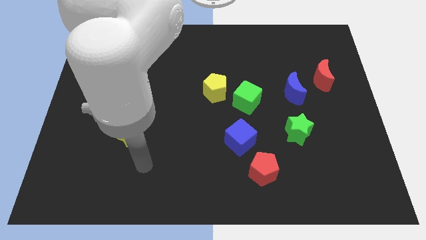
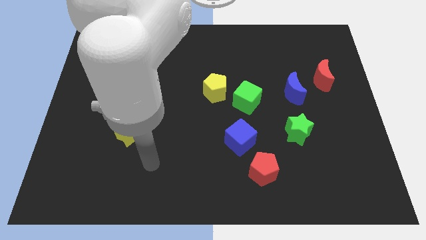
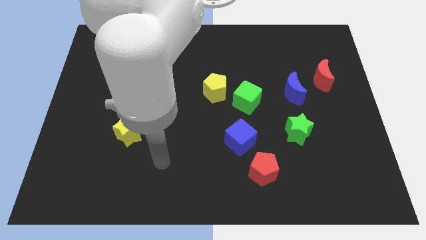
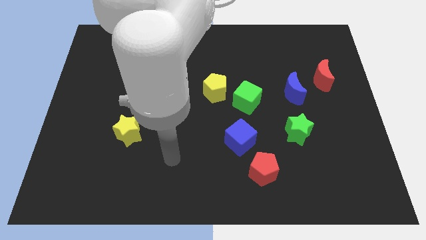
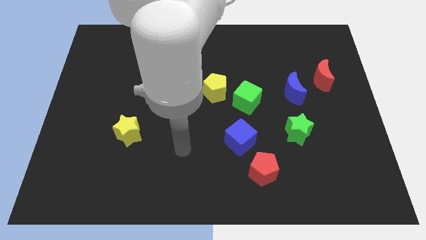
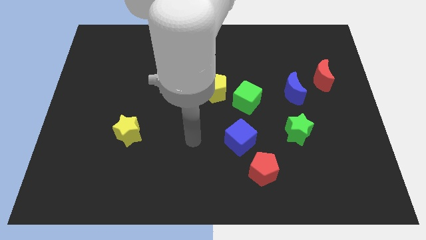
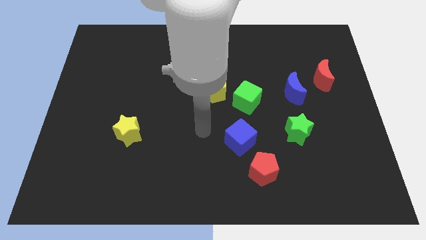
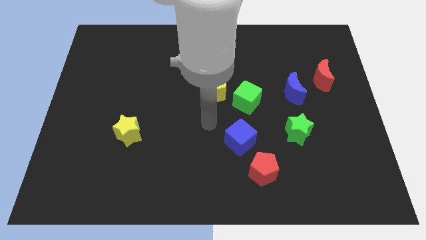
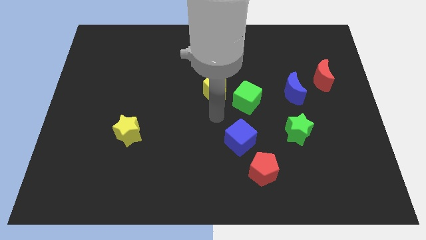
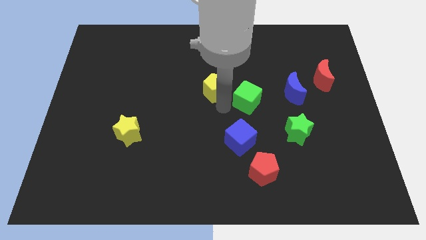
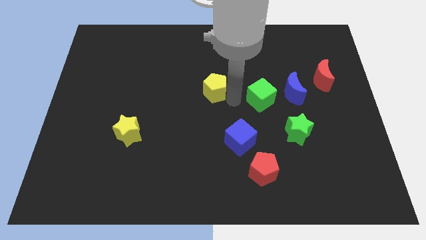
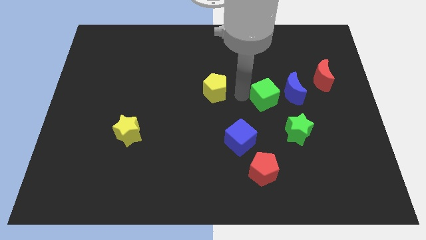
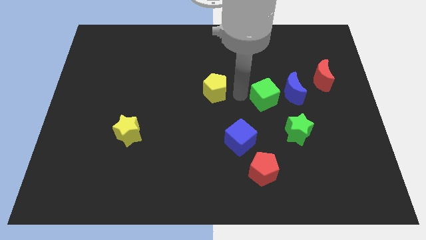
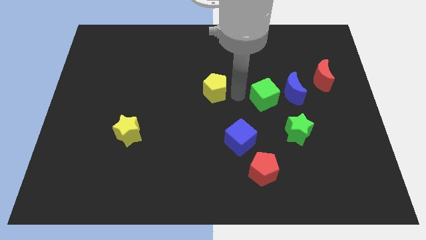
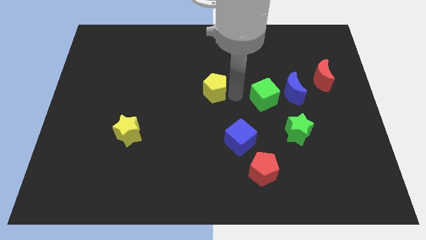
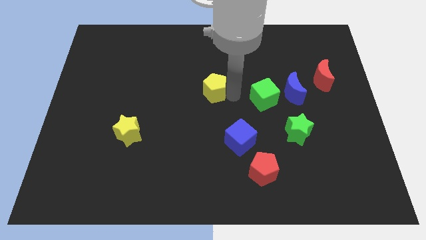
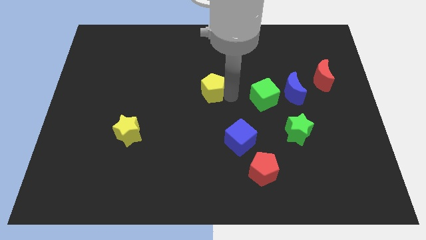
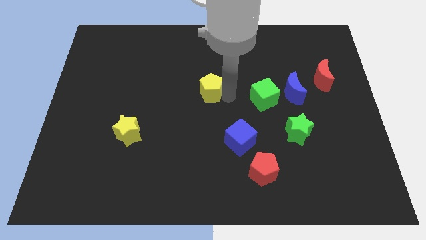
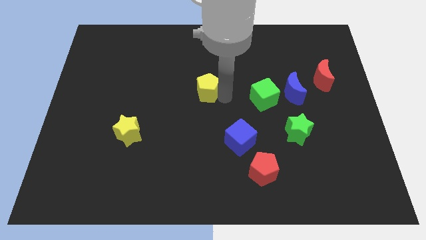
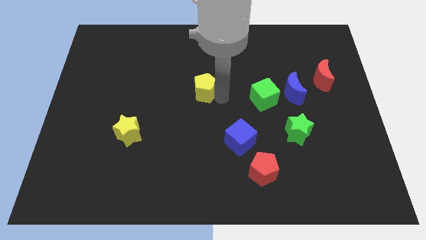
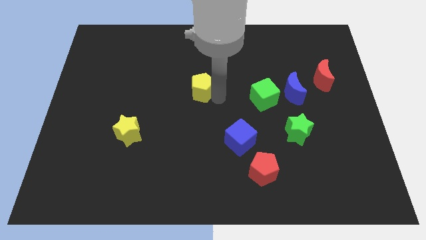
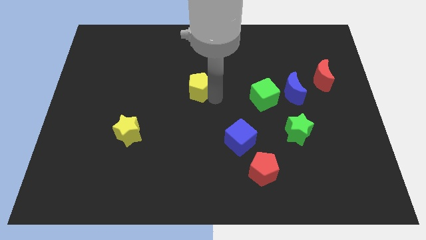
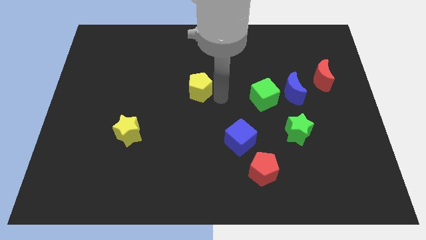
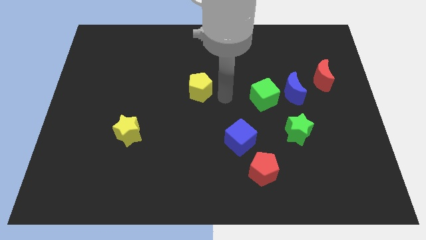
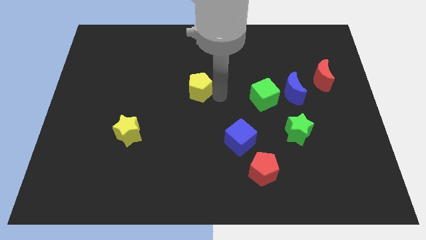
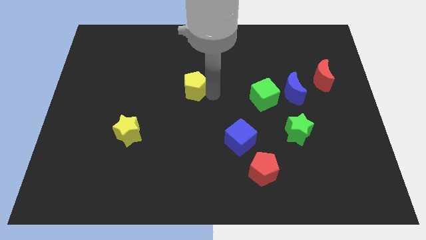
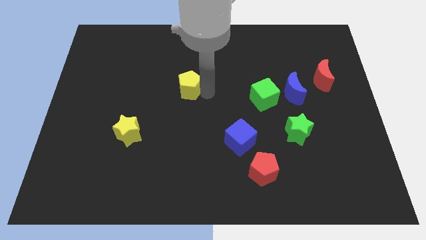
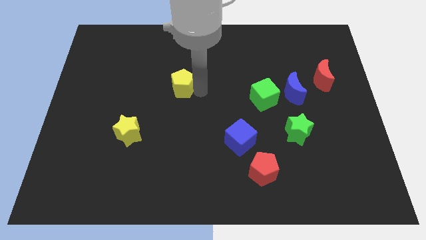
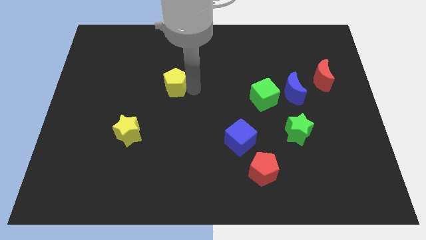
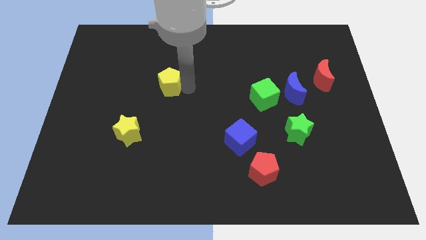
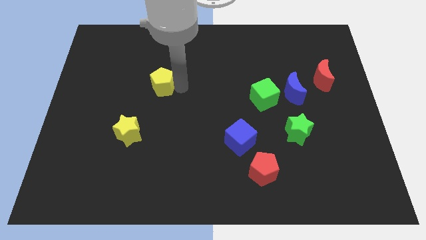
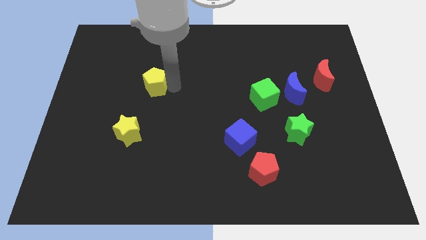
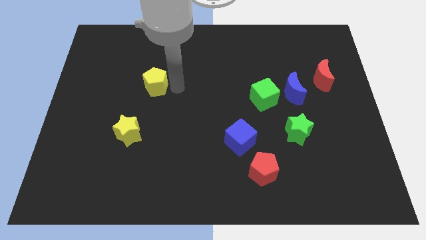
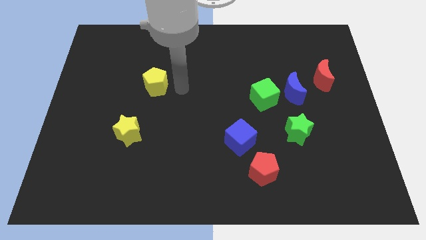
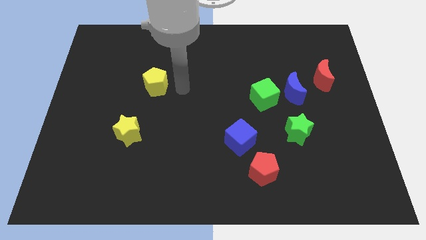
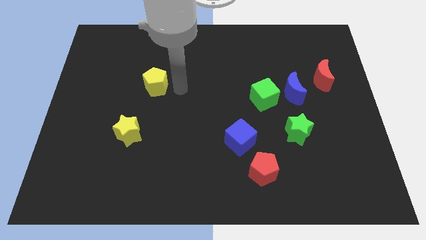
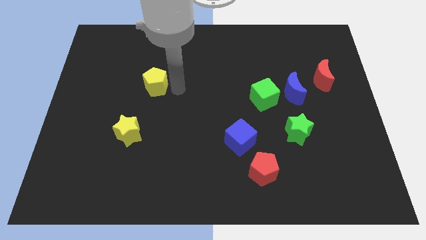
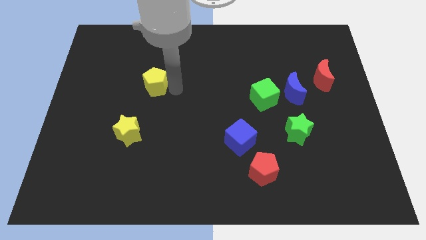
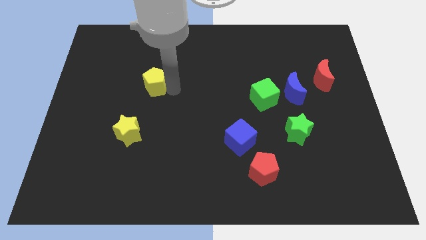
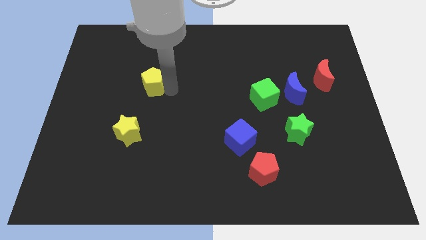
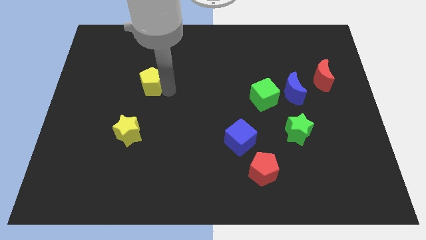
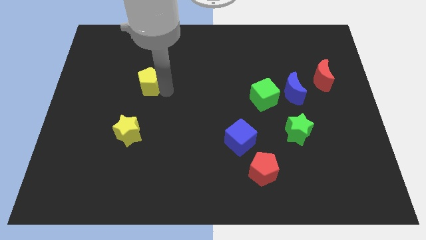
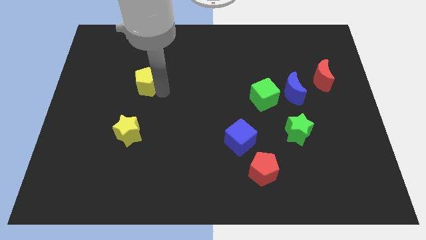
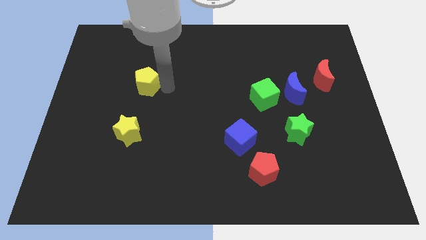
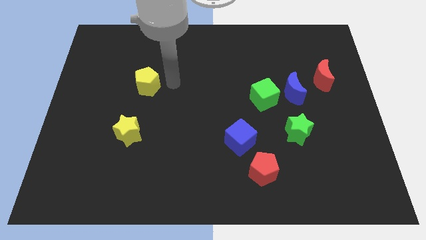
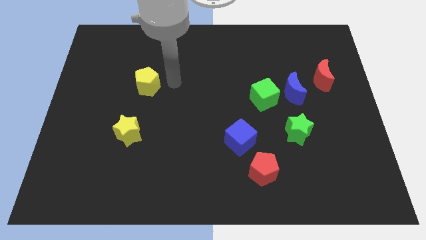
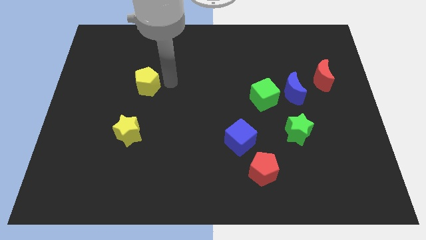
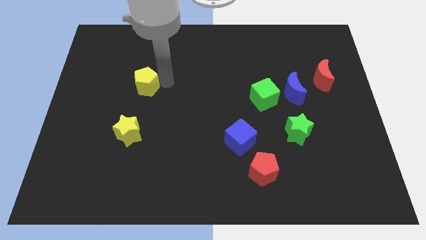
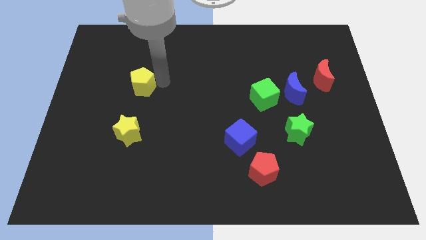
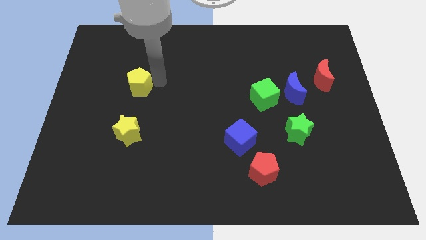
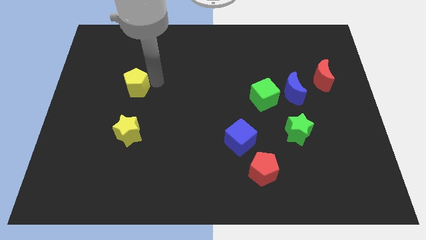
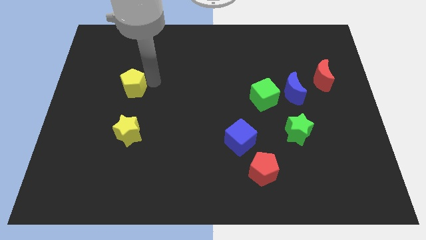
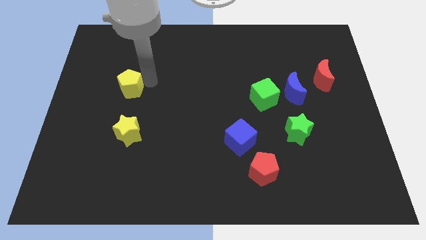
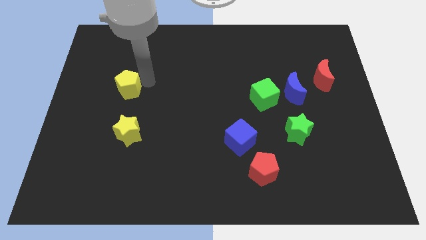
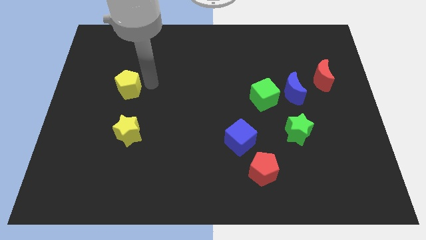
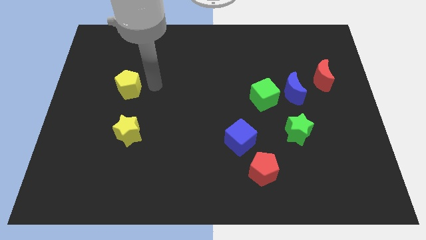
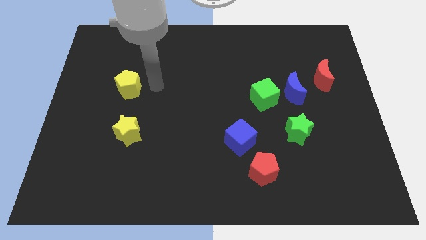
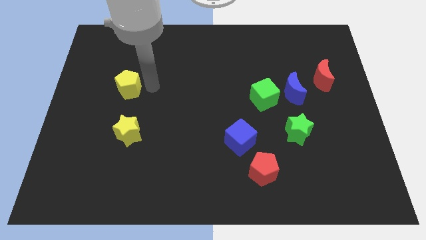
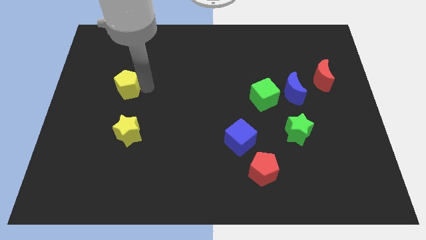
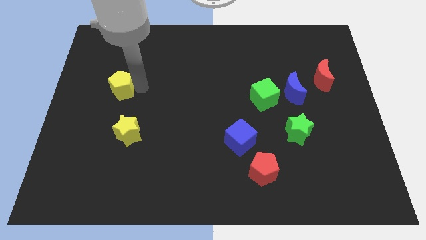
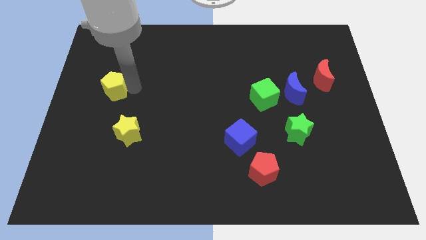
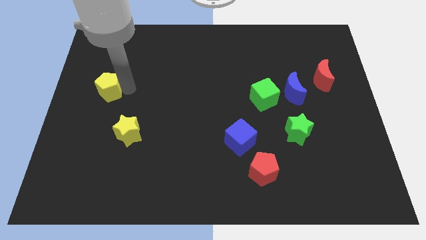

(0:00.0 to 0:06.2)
slide the yellow pentagon to the left side of the board

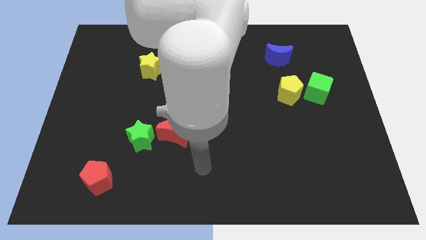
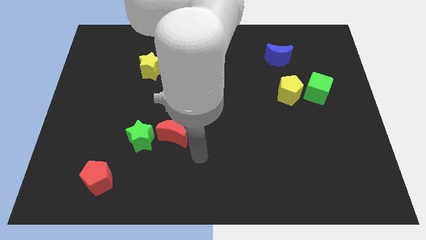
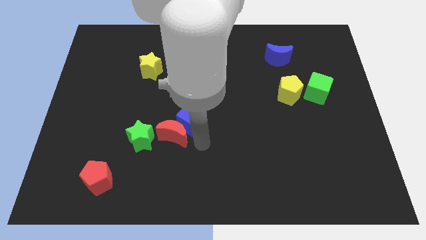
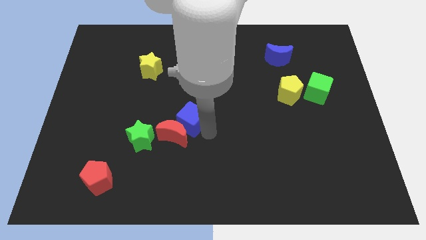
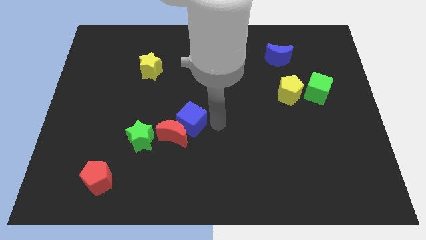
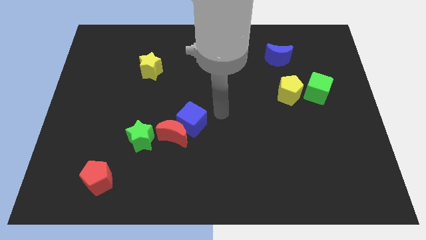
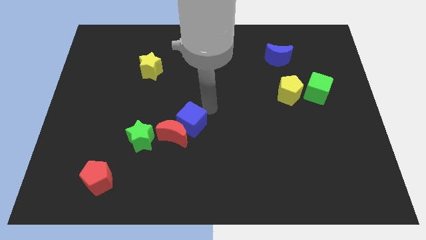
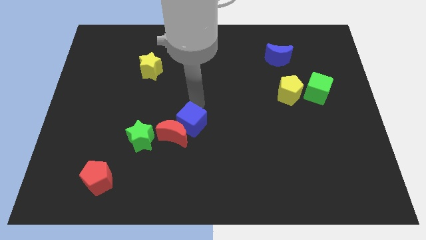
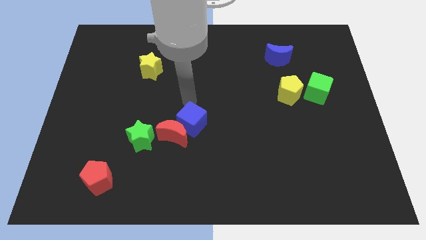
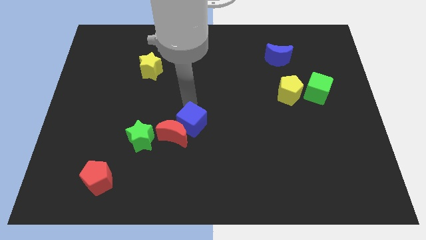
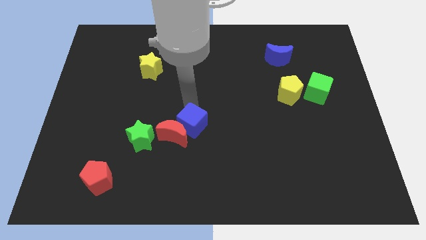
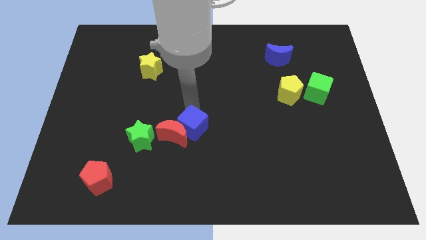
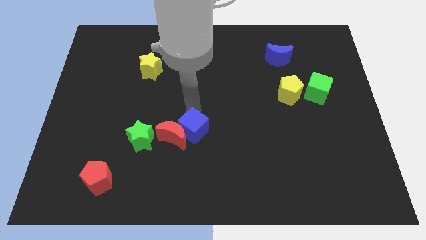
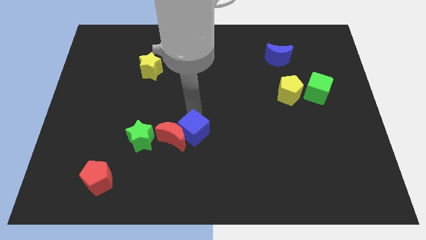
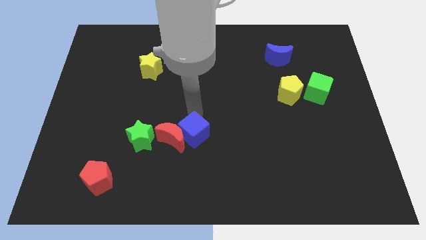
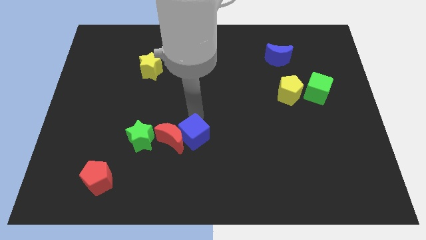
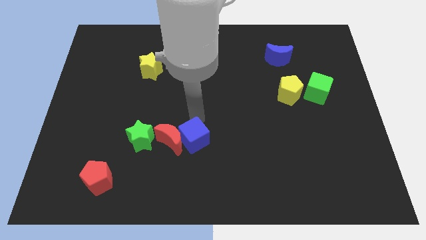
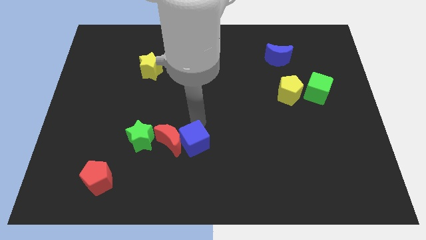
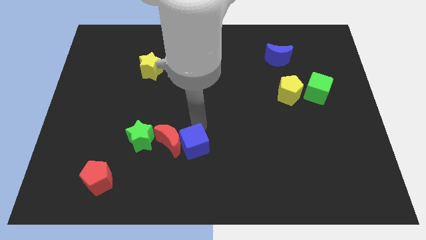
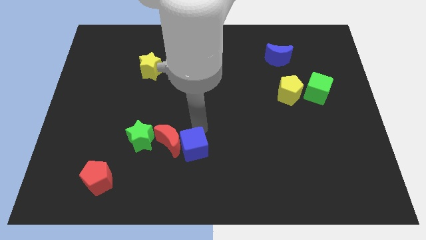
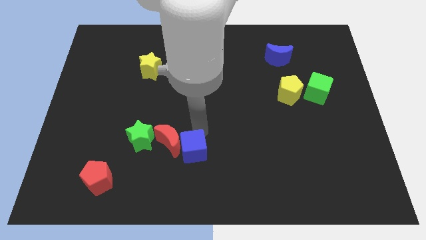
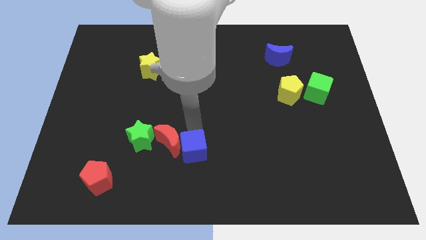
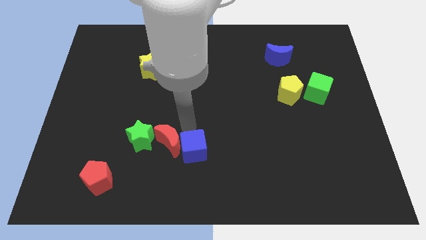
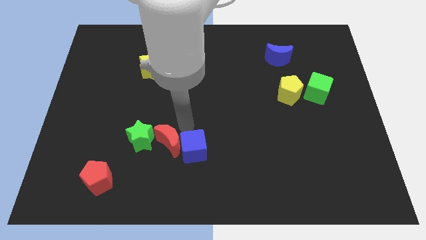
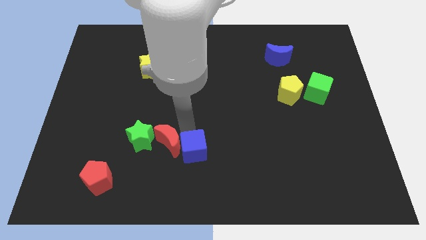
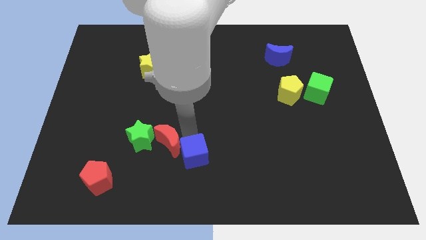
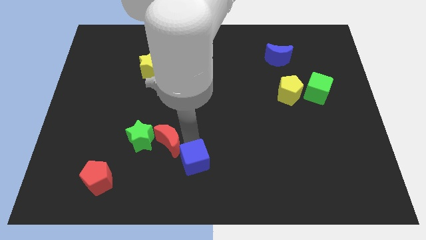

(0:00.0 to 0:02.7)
put the blue cube to the bottom
